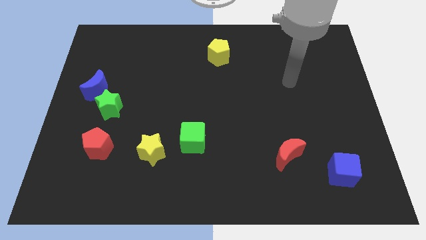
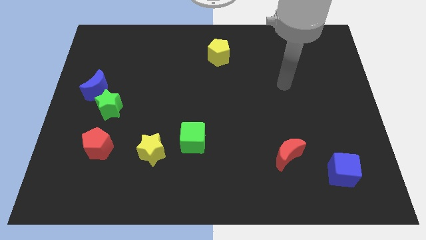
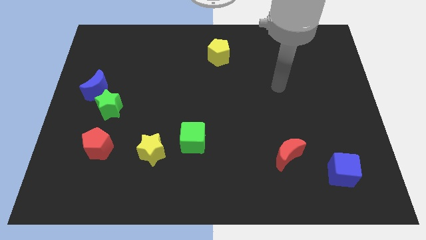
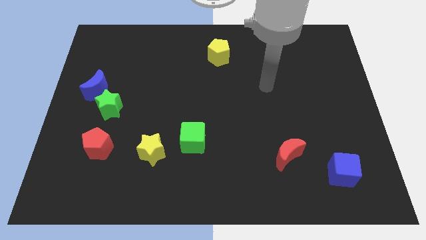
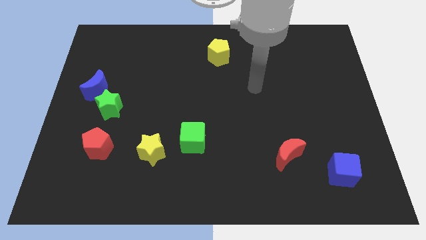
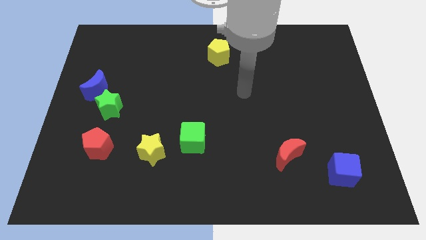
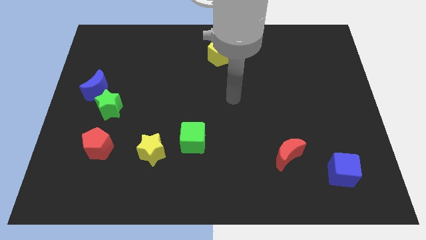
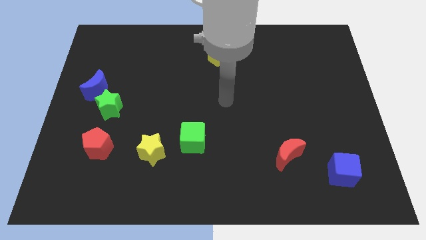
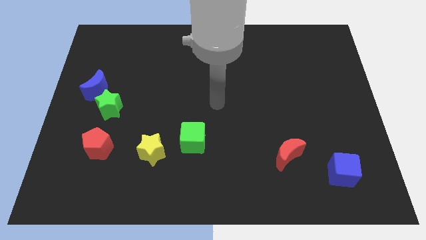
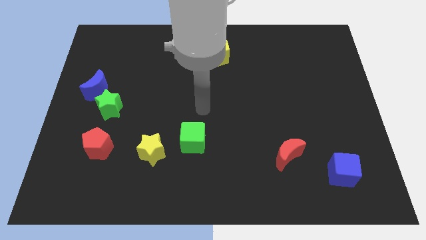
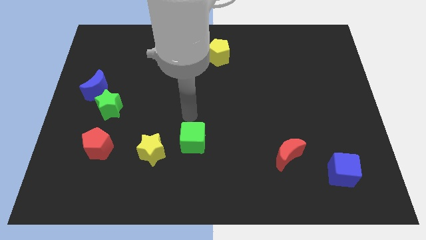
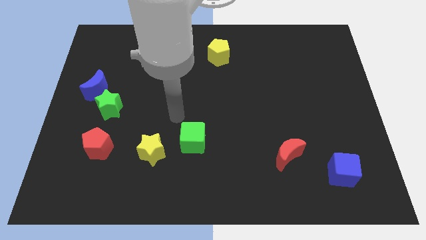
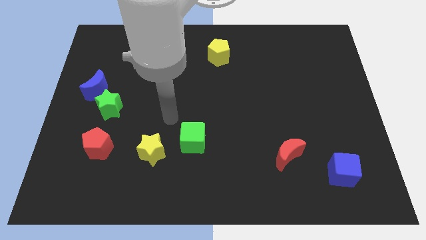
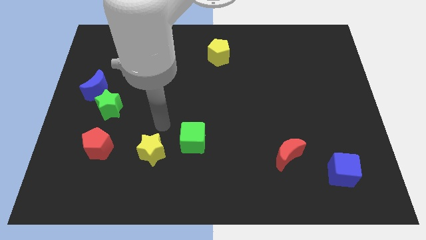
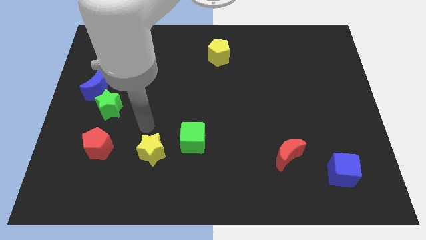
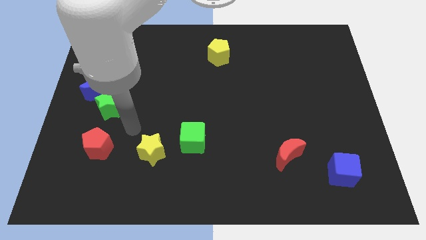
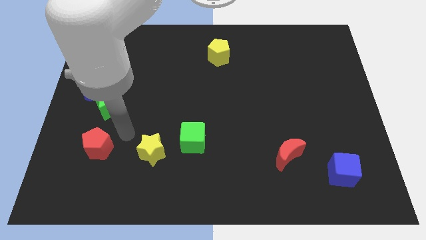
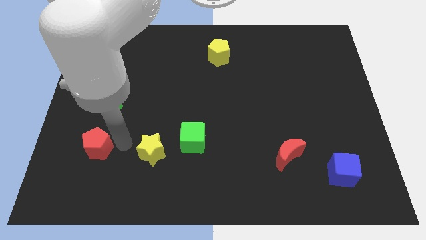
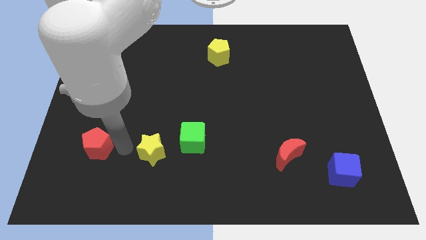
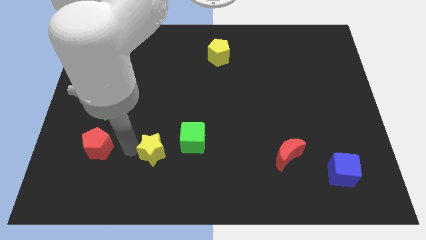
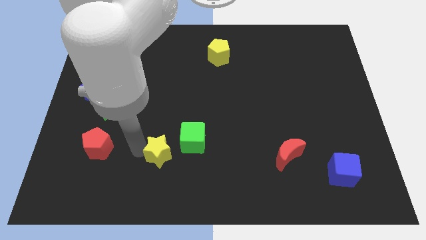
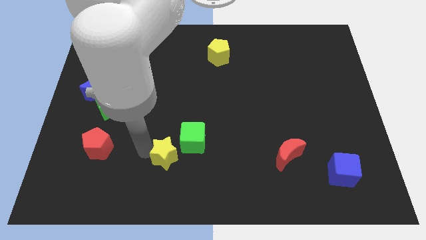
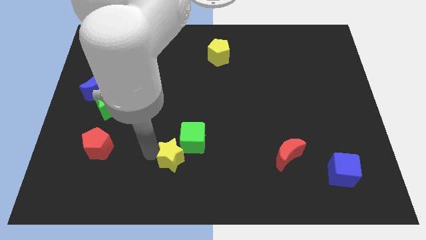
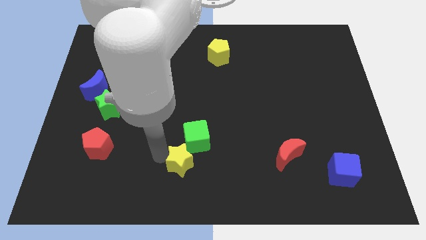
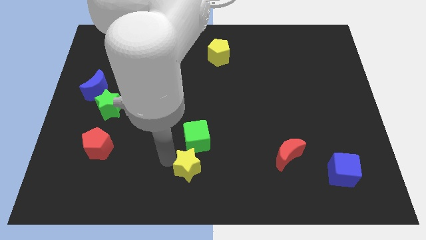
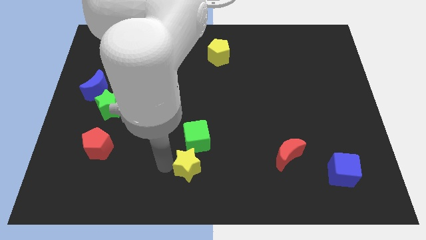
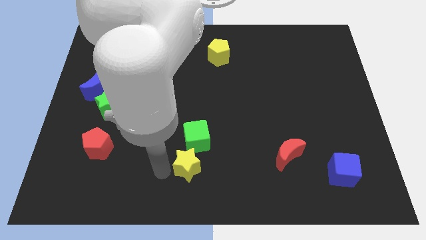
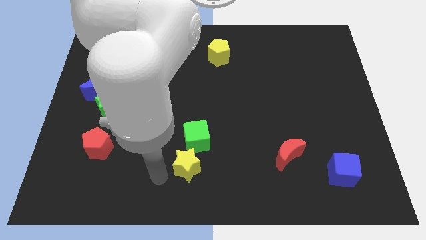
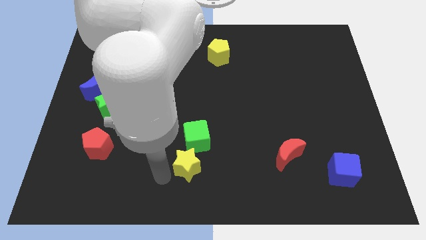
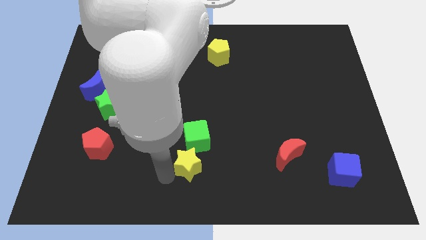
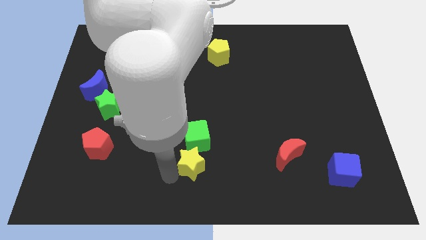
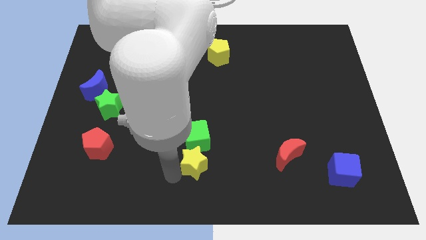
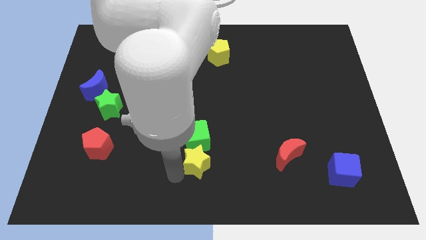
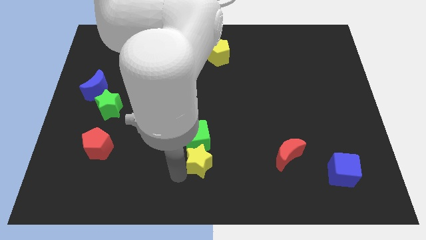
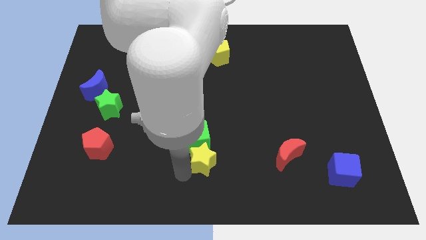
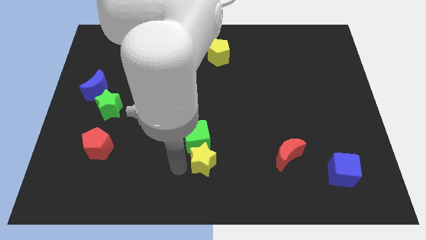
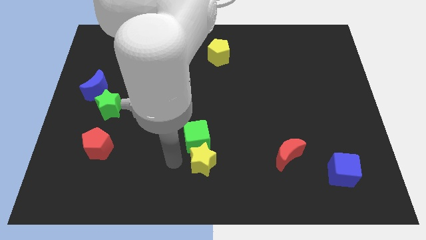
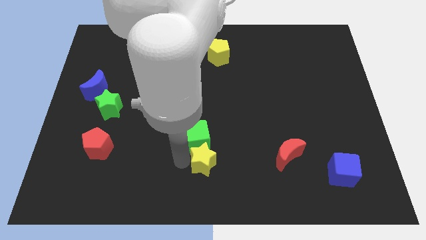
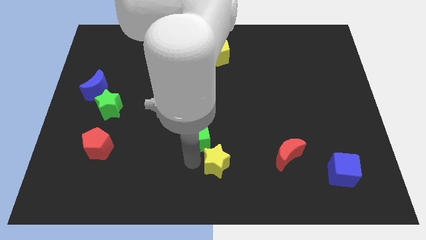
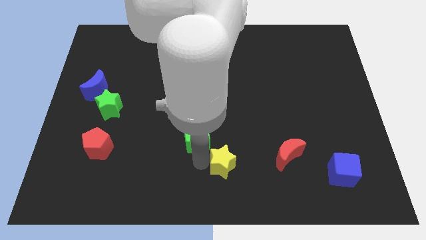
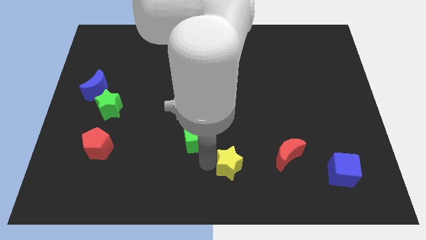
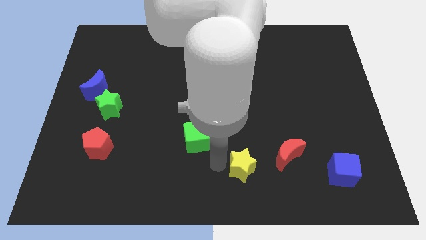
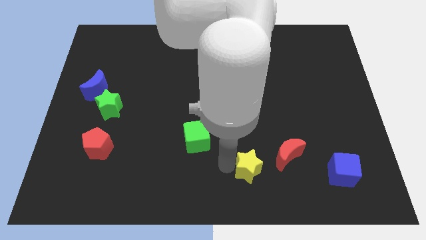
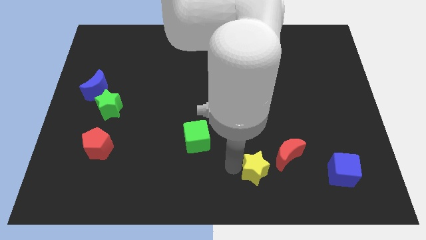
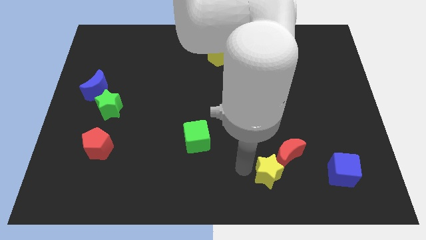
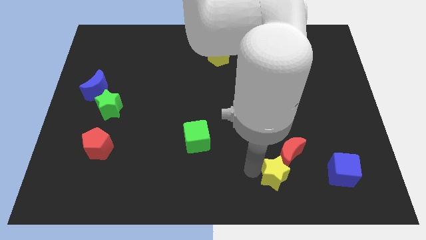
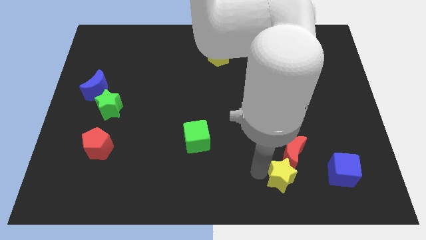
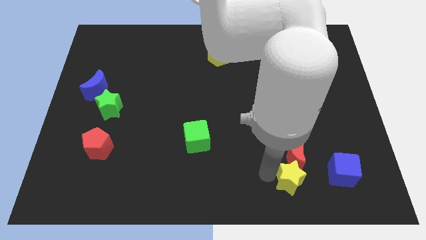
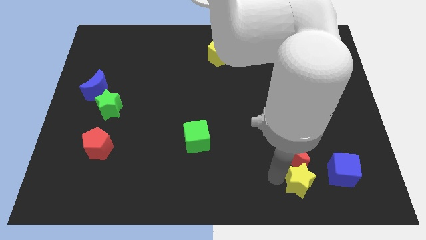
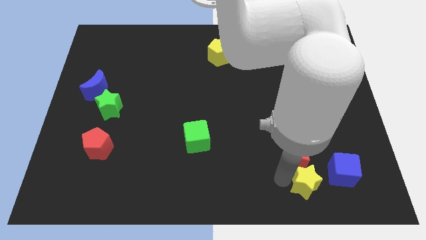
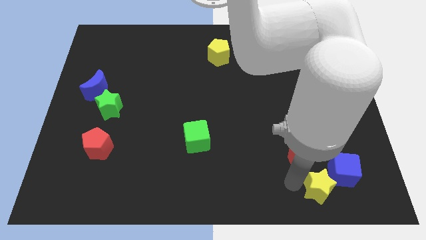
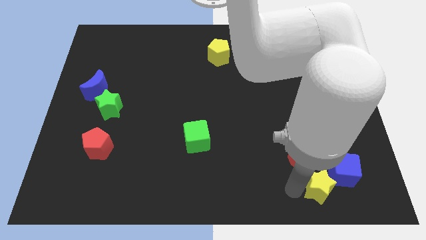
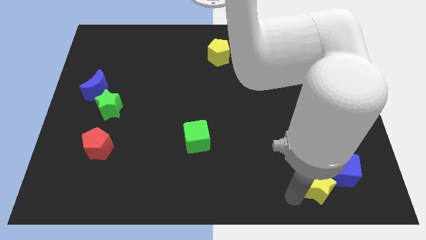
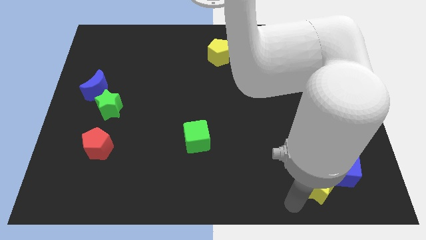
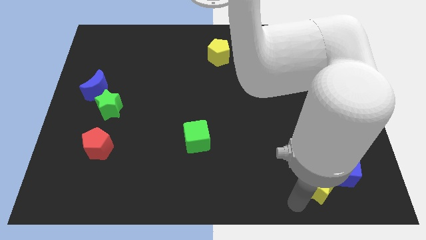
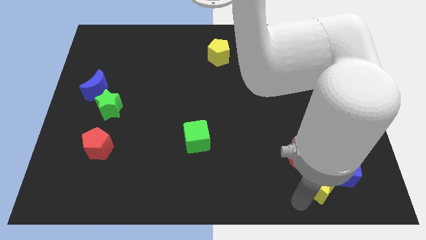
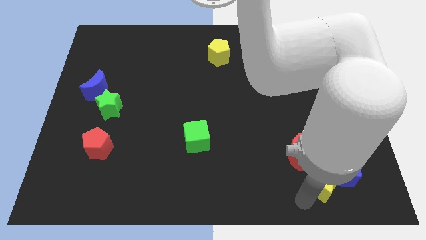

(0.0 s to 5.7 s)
push the yellow star to the blue cube

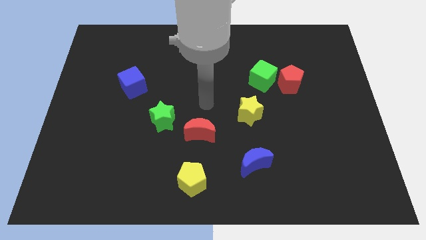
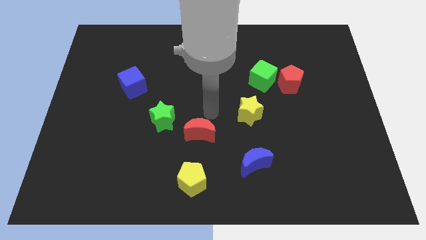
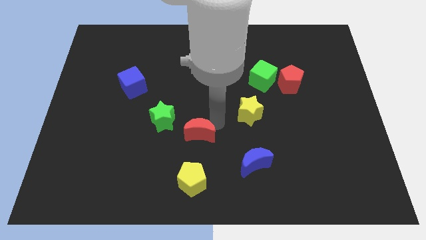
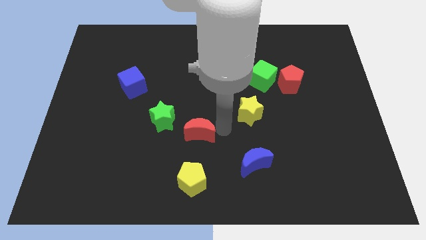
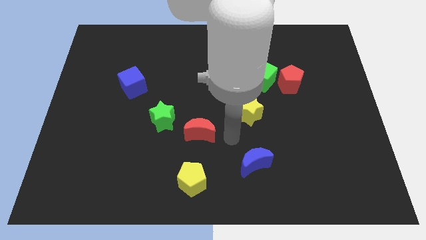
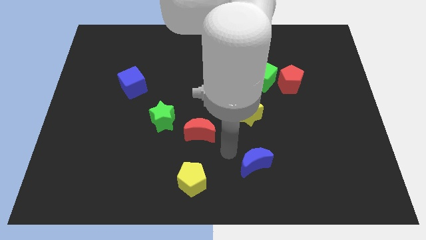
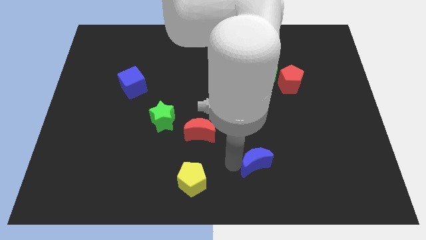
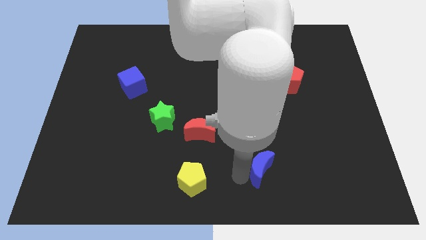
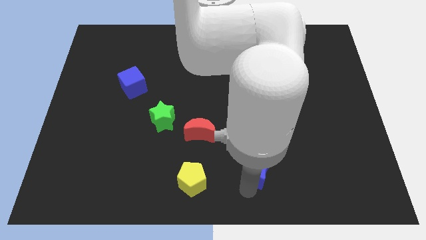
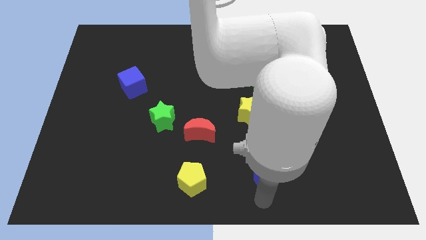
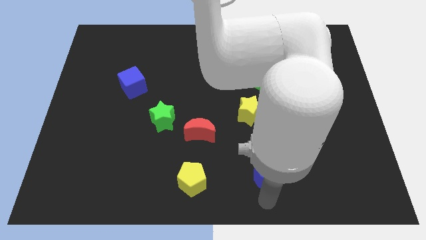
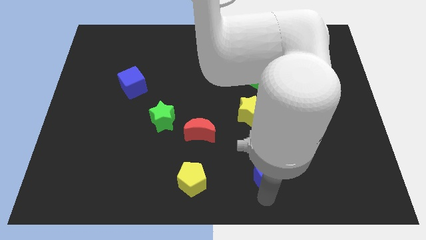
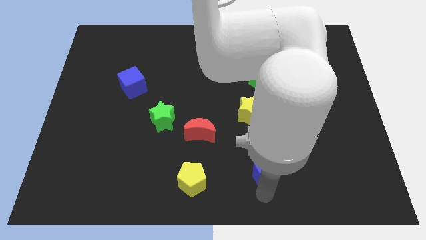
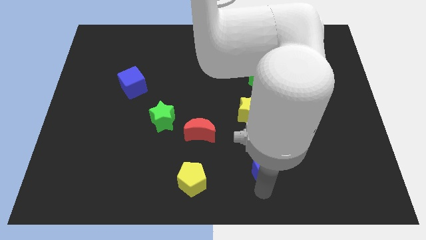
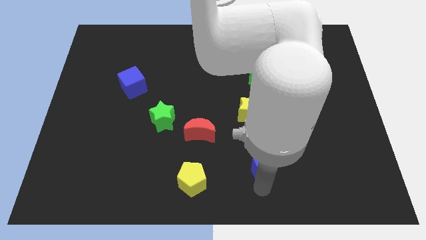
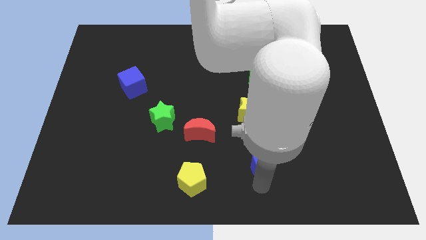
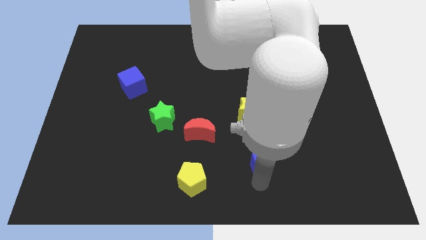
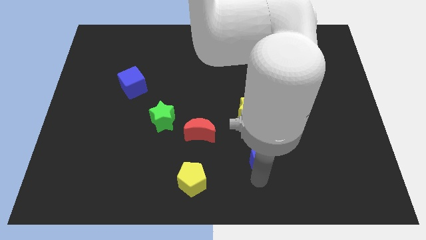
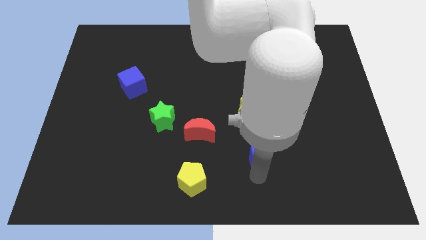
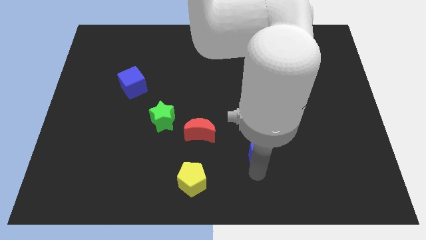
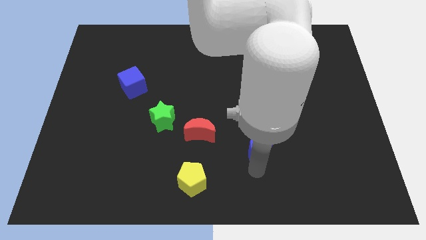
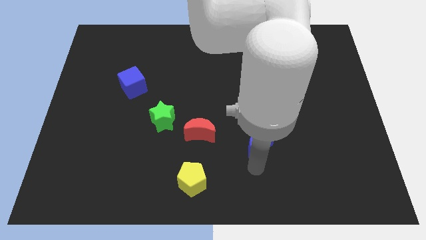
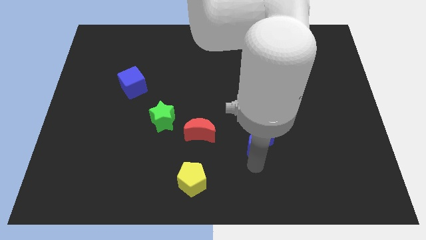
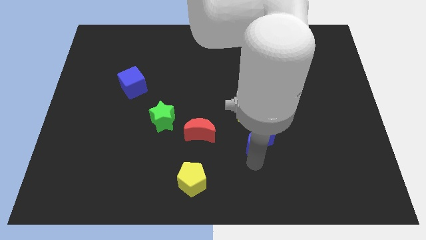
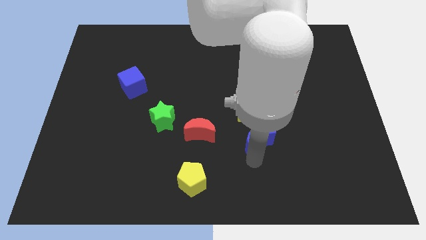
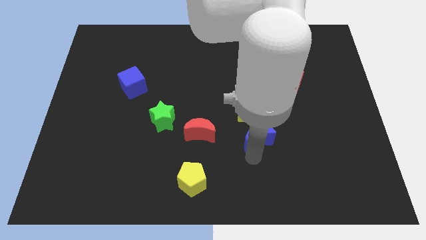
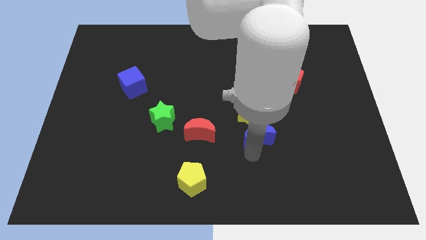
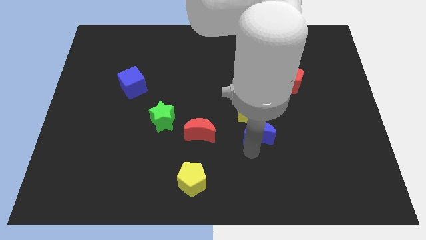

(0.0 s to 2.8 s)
slide the blue moon next to the yellow star
